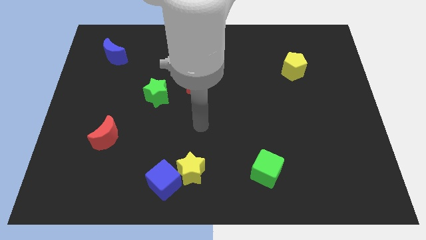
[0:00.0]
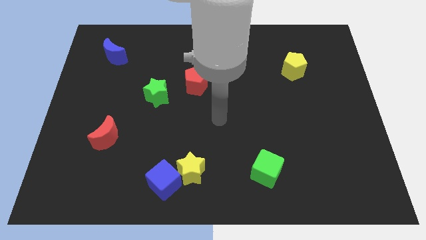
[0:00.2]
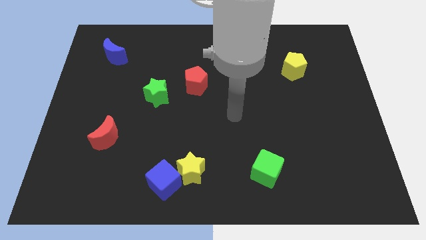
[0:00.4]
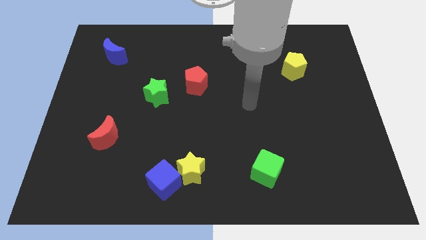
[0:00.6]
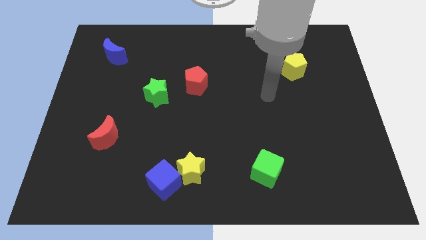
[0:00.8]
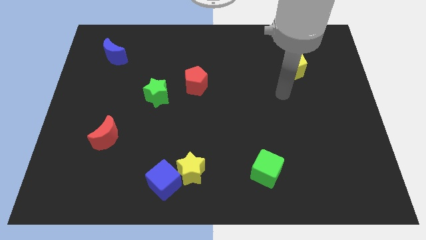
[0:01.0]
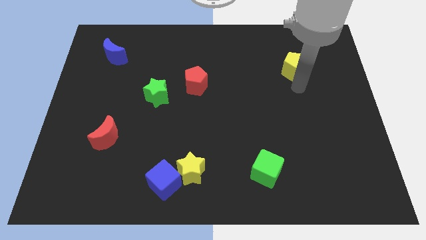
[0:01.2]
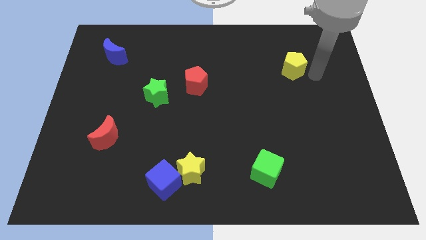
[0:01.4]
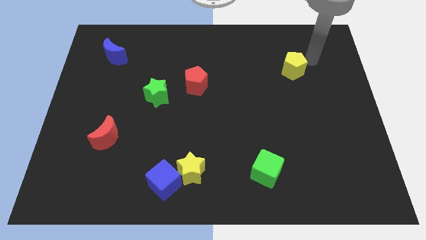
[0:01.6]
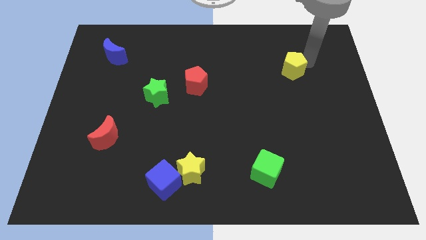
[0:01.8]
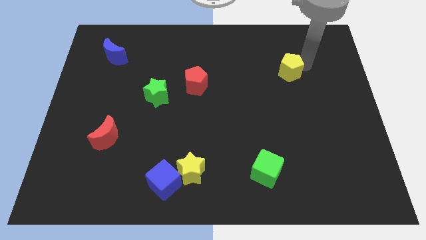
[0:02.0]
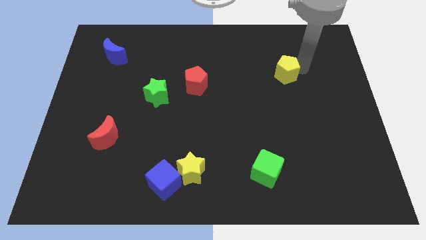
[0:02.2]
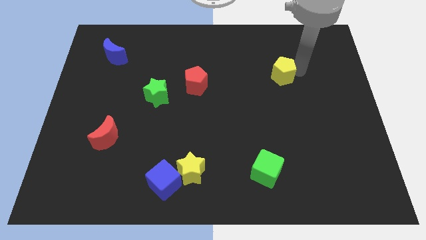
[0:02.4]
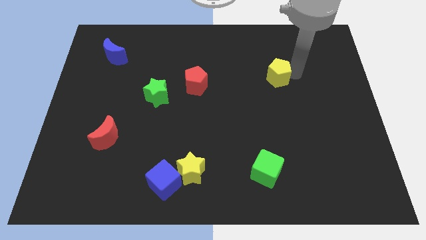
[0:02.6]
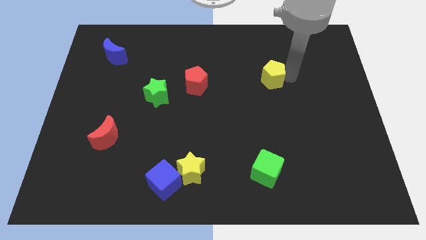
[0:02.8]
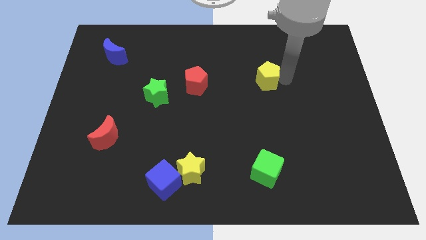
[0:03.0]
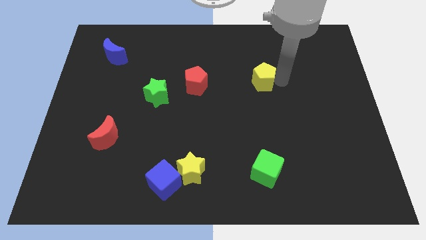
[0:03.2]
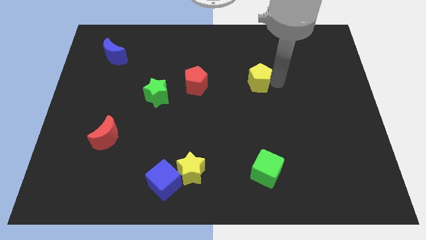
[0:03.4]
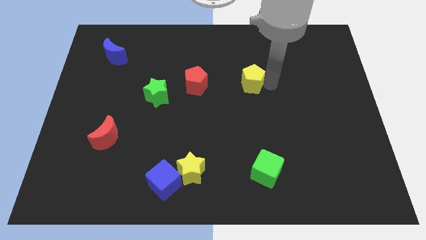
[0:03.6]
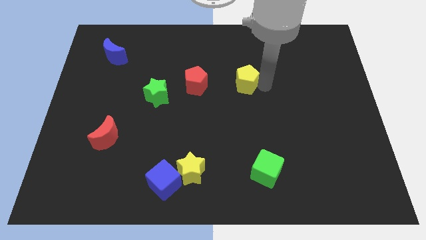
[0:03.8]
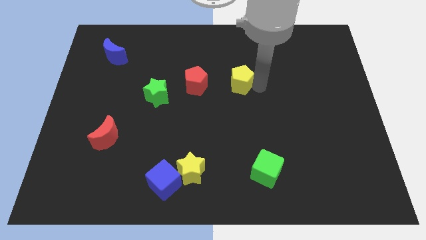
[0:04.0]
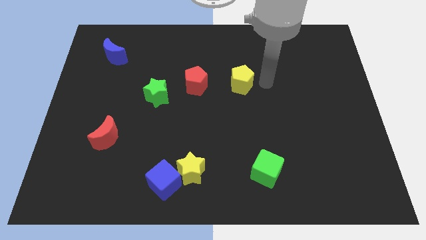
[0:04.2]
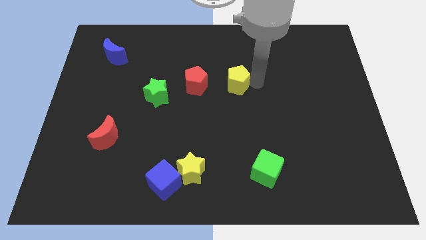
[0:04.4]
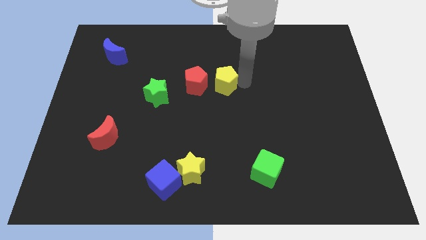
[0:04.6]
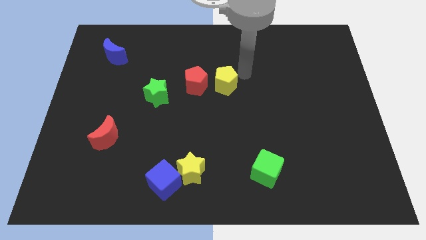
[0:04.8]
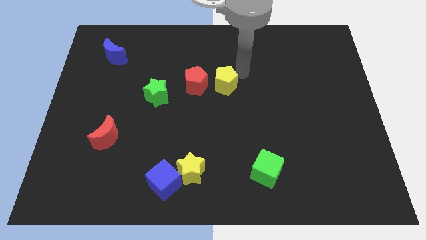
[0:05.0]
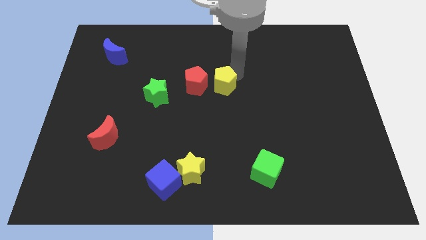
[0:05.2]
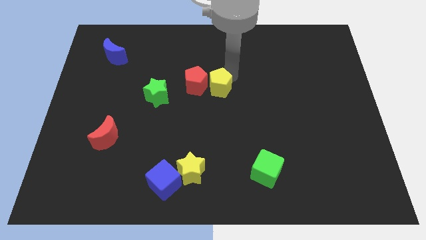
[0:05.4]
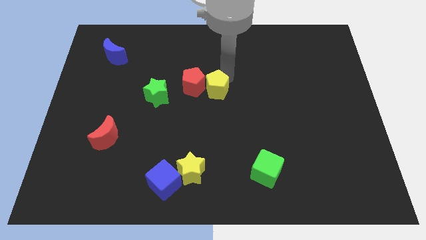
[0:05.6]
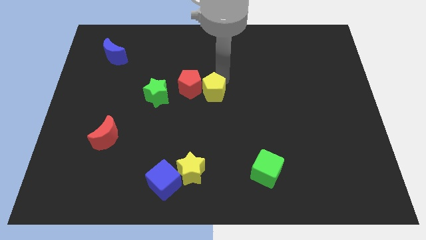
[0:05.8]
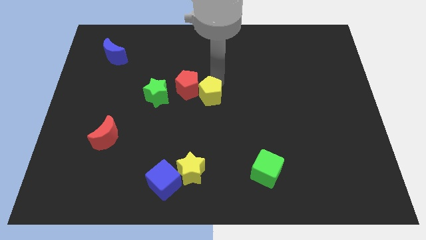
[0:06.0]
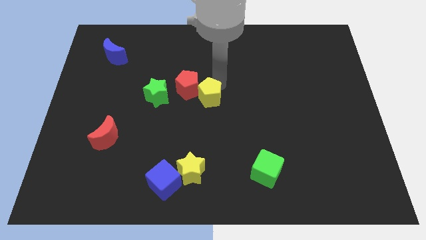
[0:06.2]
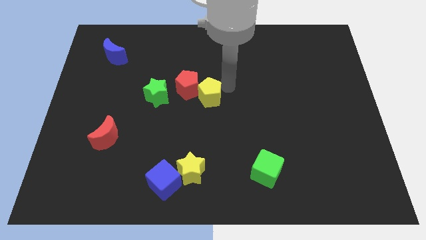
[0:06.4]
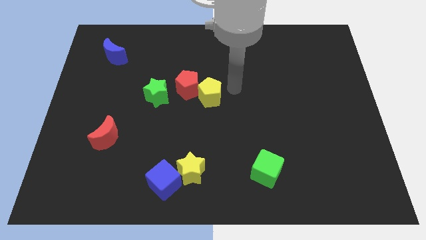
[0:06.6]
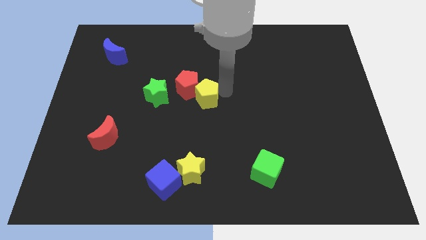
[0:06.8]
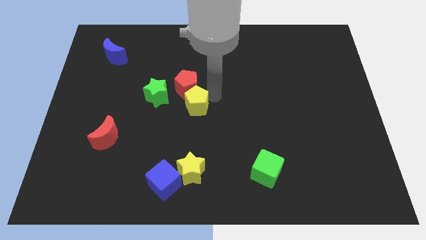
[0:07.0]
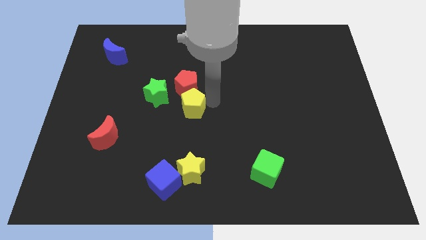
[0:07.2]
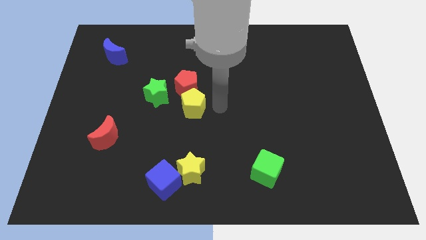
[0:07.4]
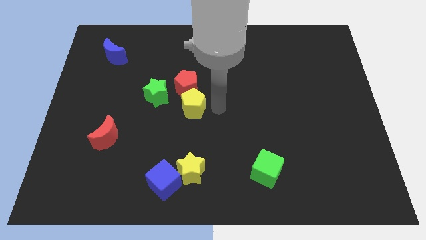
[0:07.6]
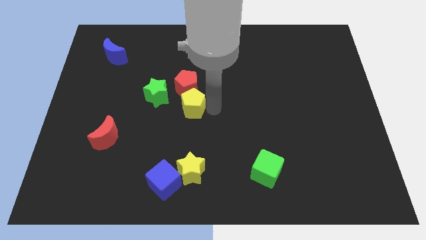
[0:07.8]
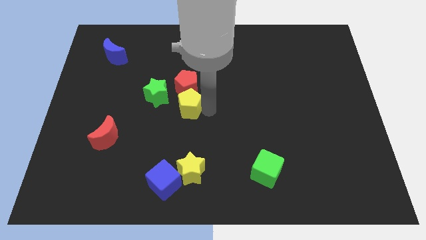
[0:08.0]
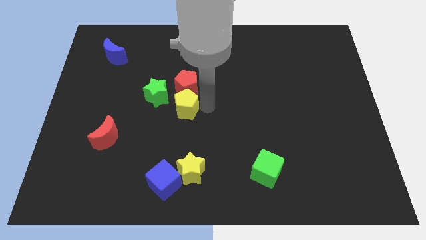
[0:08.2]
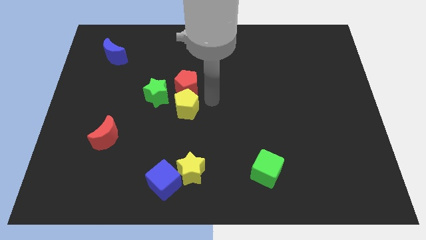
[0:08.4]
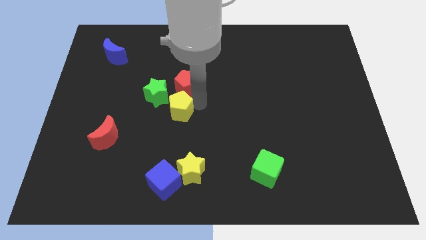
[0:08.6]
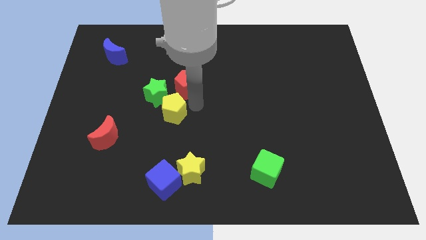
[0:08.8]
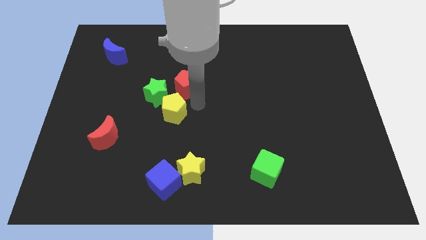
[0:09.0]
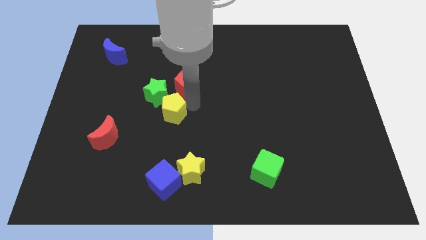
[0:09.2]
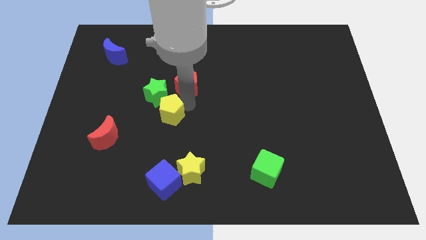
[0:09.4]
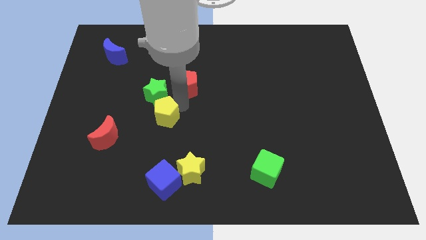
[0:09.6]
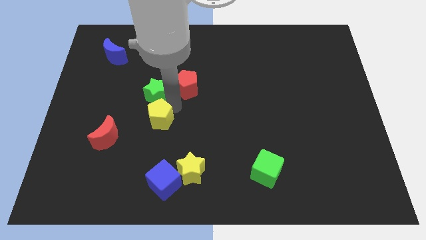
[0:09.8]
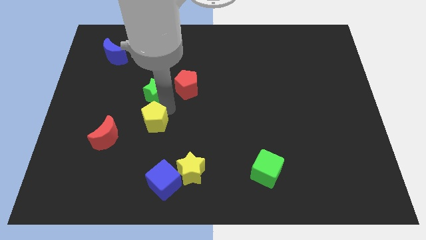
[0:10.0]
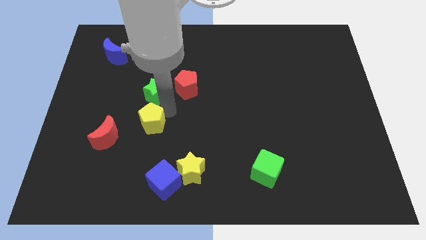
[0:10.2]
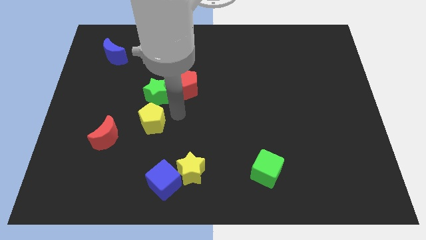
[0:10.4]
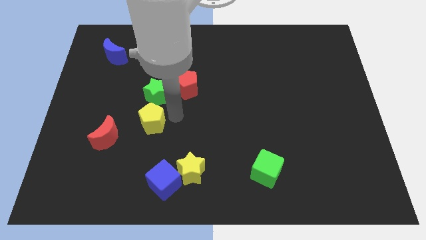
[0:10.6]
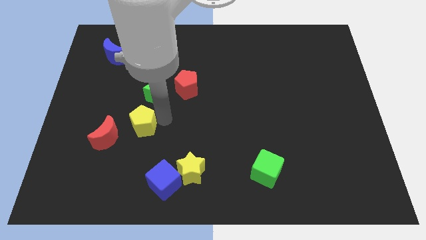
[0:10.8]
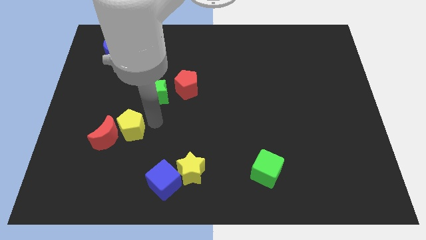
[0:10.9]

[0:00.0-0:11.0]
put the yellow pentagon towards the red moon

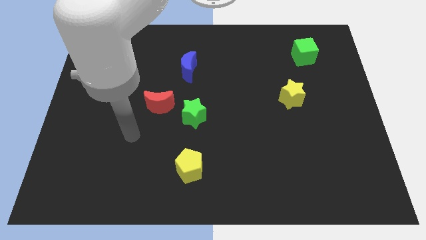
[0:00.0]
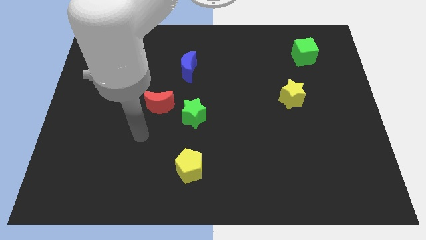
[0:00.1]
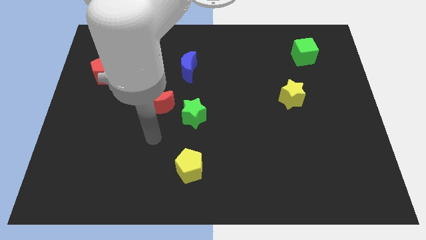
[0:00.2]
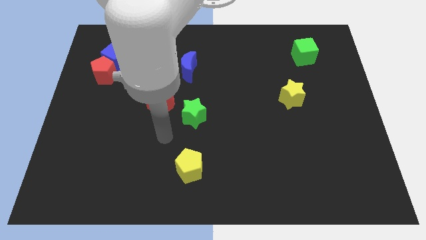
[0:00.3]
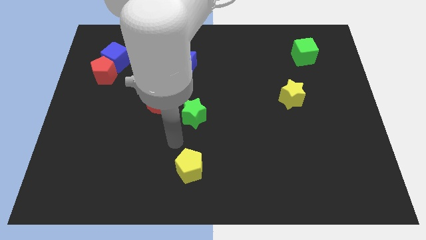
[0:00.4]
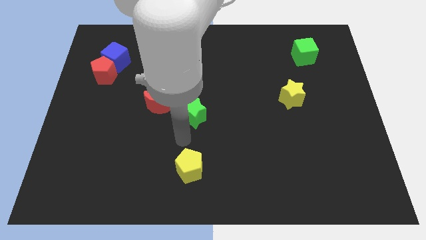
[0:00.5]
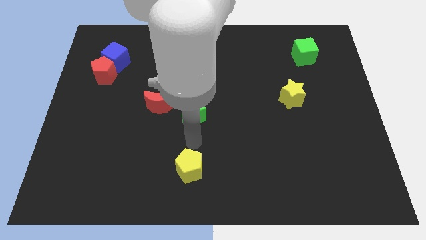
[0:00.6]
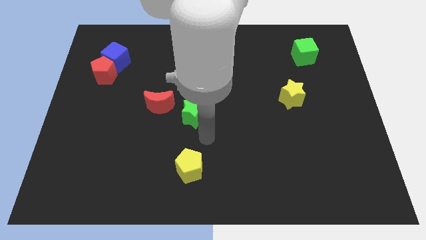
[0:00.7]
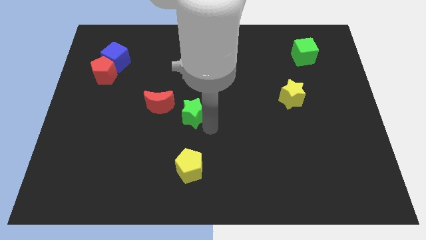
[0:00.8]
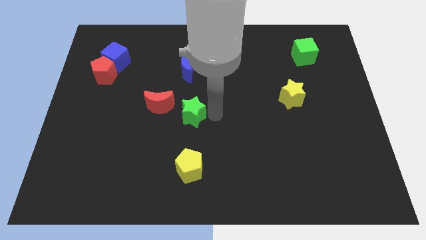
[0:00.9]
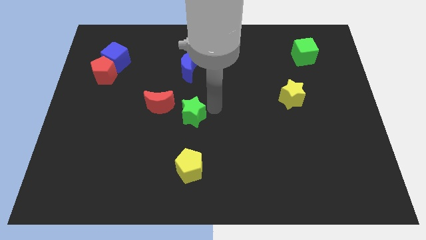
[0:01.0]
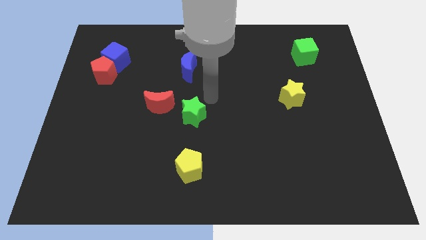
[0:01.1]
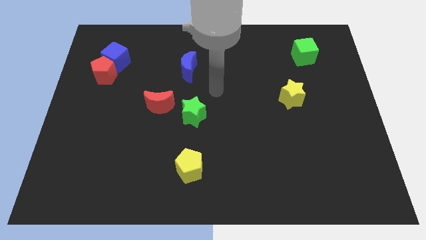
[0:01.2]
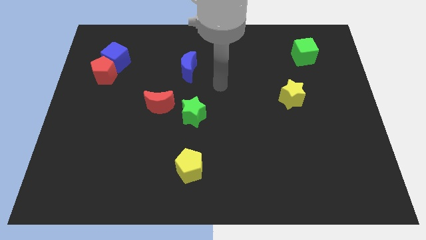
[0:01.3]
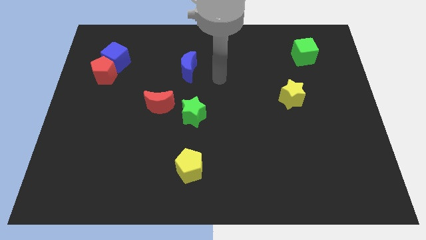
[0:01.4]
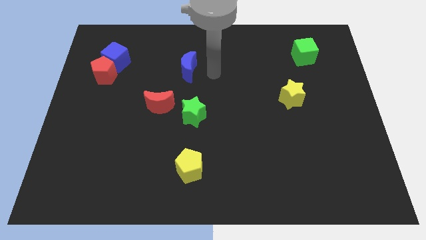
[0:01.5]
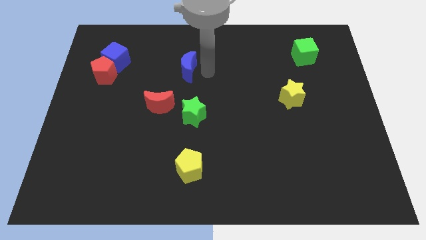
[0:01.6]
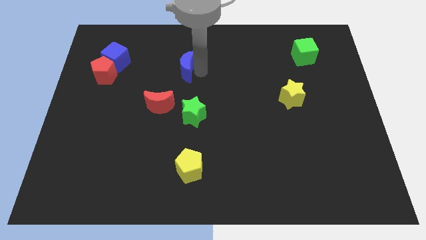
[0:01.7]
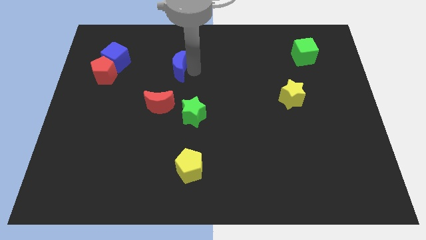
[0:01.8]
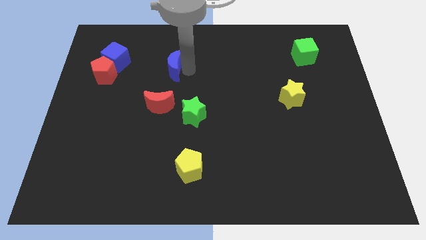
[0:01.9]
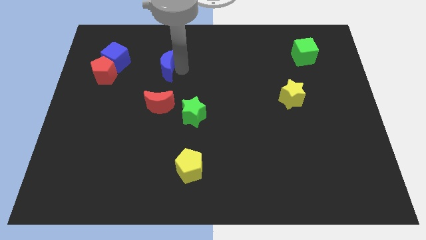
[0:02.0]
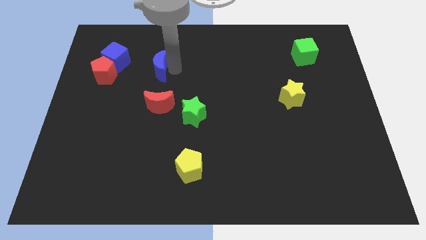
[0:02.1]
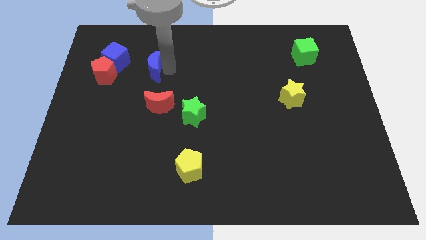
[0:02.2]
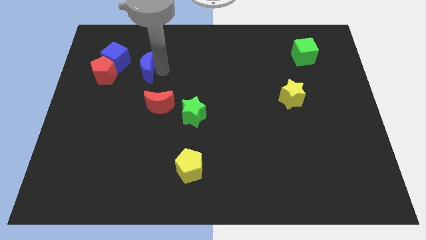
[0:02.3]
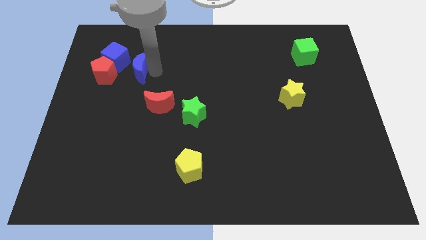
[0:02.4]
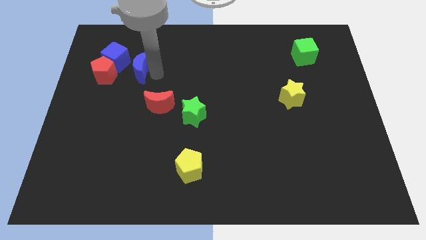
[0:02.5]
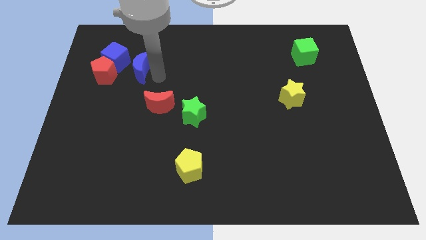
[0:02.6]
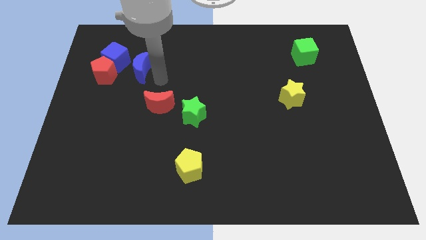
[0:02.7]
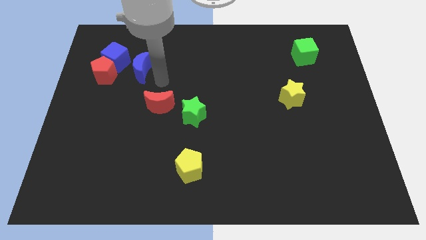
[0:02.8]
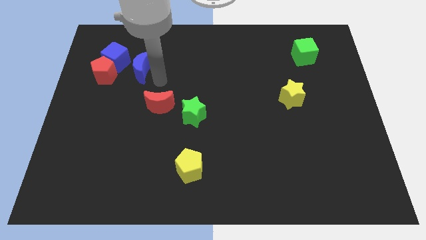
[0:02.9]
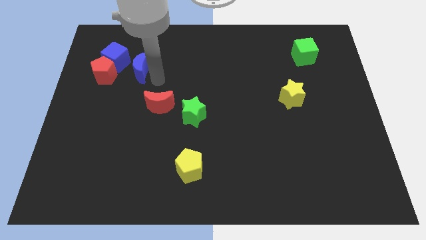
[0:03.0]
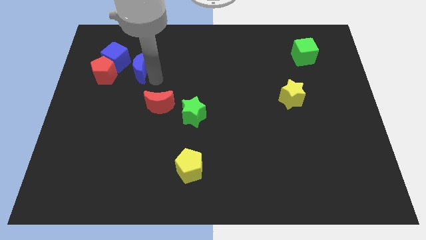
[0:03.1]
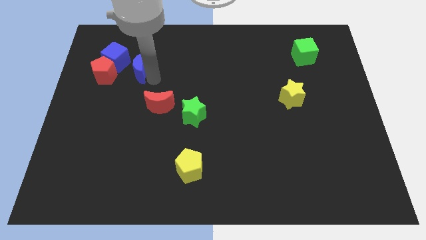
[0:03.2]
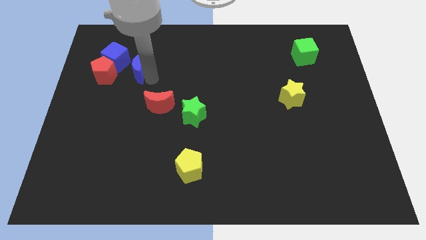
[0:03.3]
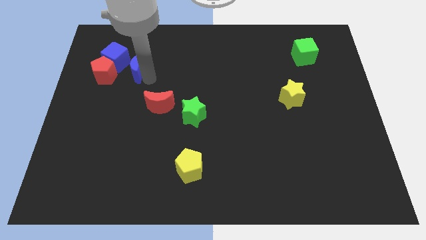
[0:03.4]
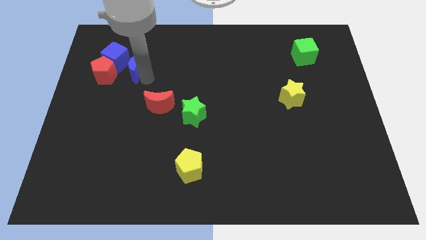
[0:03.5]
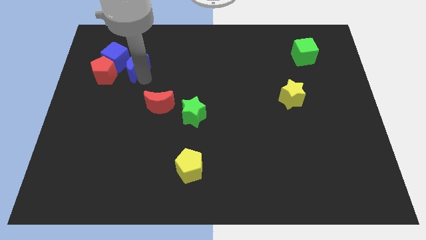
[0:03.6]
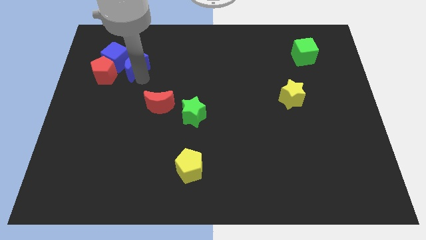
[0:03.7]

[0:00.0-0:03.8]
slide the blue moon to the blue cube
